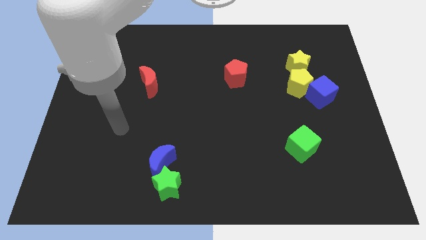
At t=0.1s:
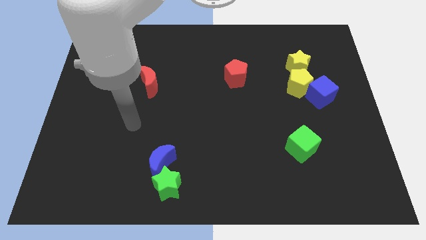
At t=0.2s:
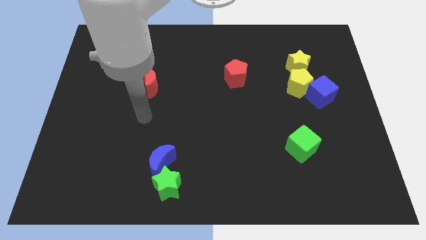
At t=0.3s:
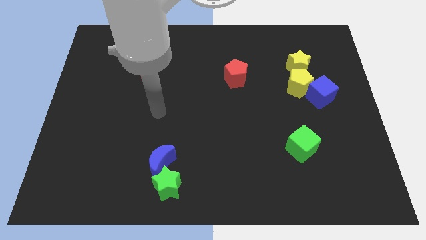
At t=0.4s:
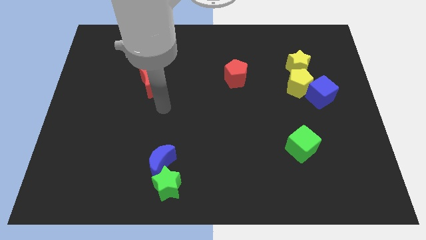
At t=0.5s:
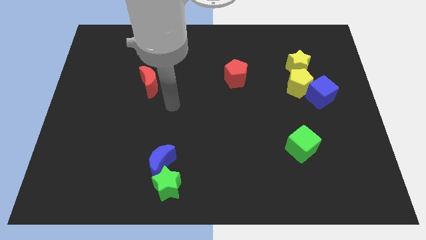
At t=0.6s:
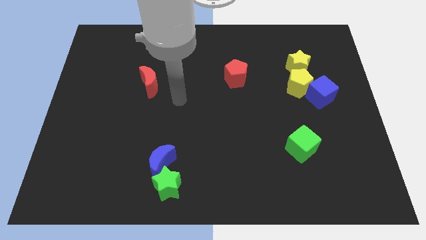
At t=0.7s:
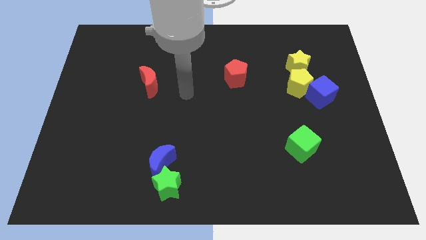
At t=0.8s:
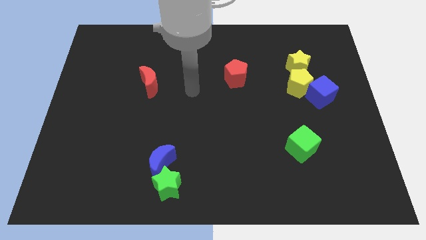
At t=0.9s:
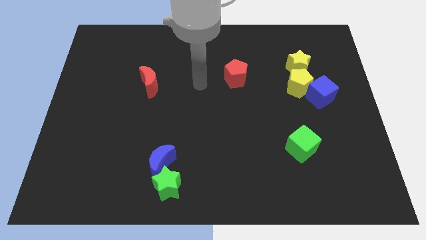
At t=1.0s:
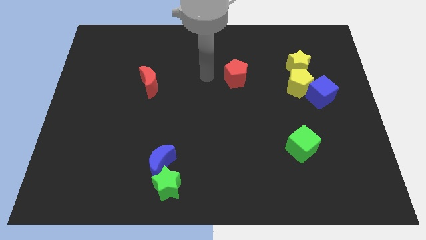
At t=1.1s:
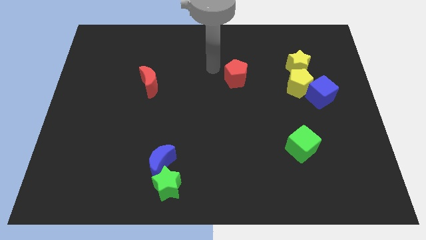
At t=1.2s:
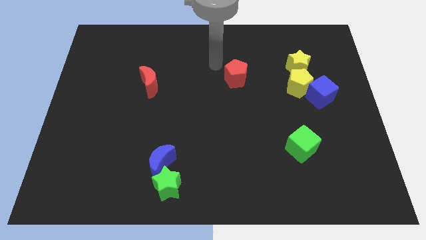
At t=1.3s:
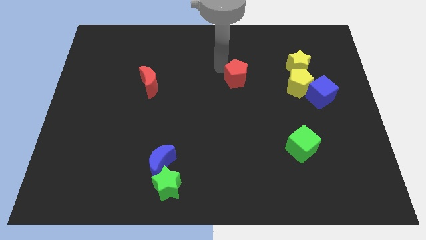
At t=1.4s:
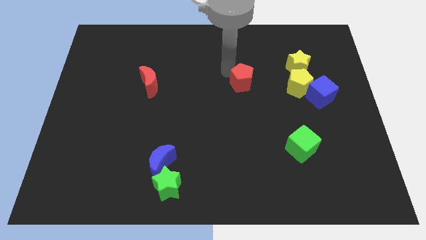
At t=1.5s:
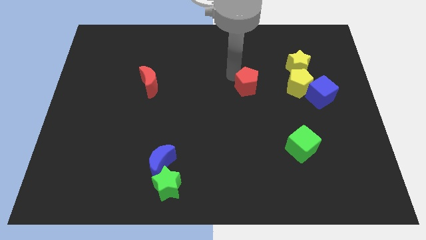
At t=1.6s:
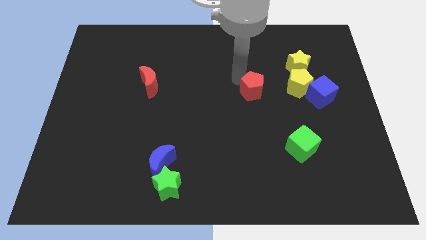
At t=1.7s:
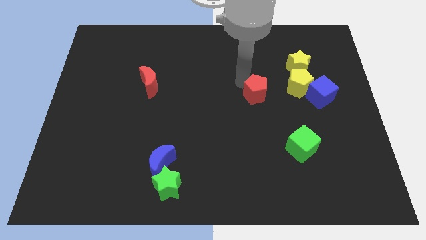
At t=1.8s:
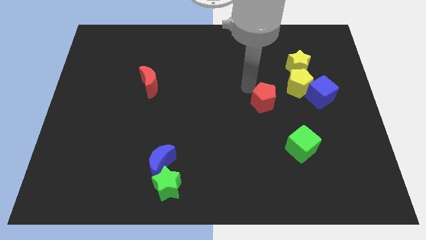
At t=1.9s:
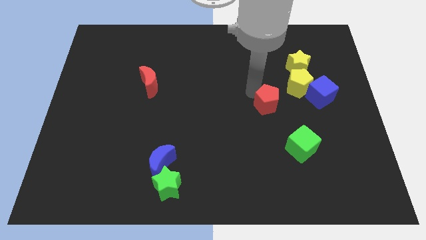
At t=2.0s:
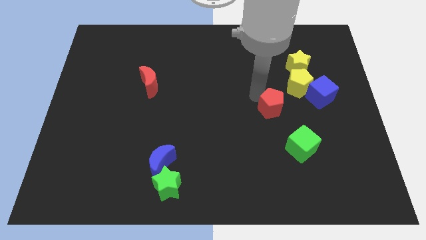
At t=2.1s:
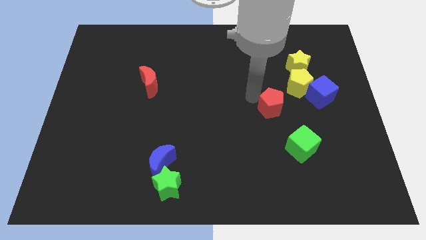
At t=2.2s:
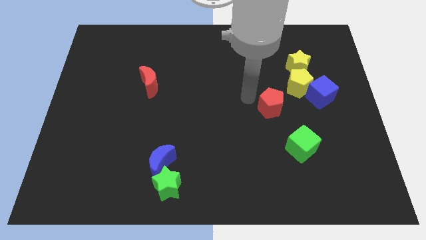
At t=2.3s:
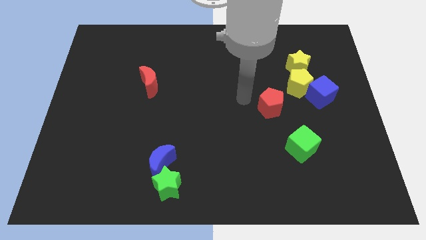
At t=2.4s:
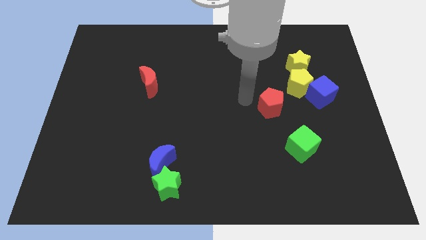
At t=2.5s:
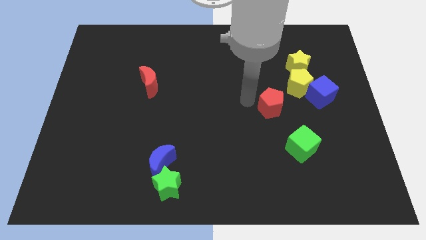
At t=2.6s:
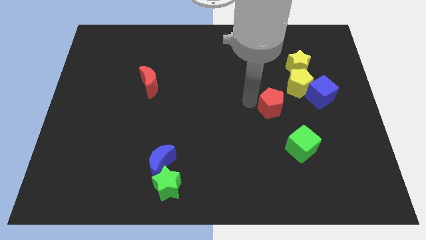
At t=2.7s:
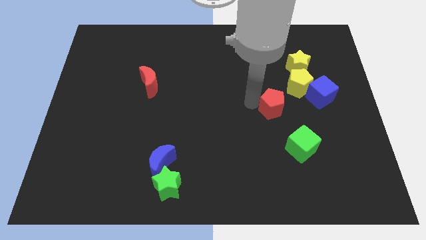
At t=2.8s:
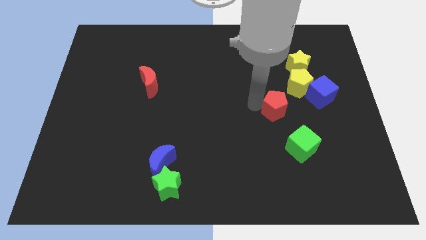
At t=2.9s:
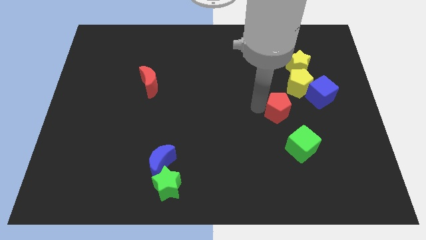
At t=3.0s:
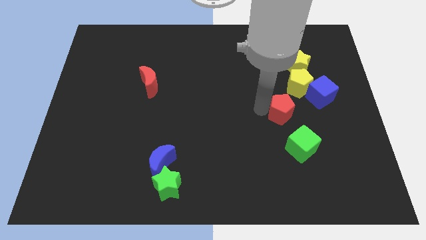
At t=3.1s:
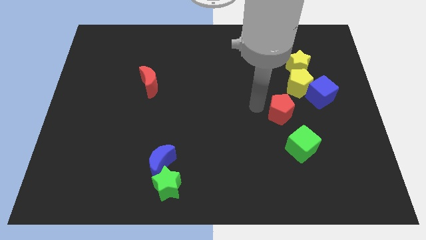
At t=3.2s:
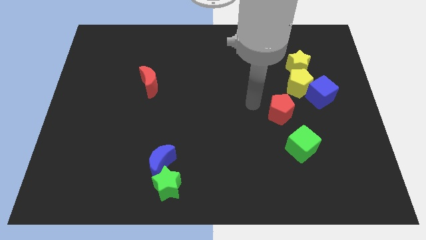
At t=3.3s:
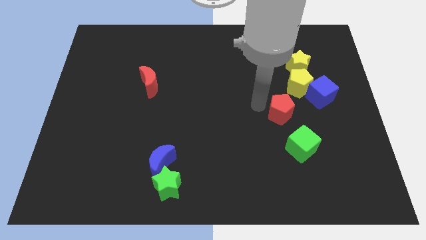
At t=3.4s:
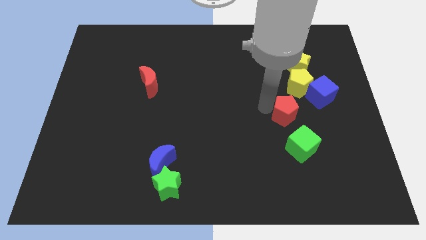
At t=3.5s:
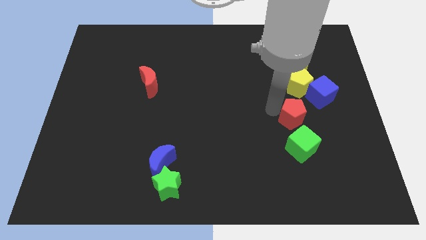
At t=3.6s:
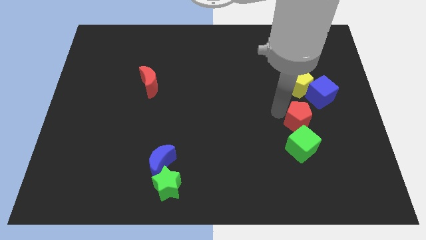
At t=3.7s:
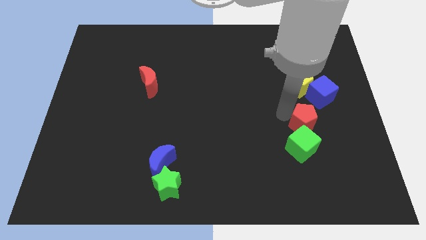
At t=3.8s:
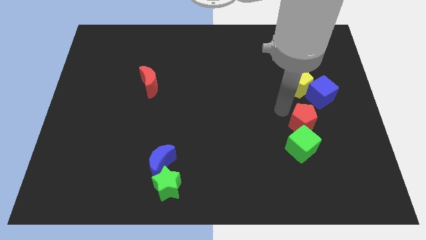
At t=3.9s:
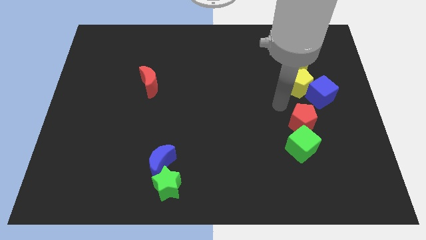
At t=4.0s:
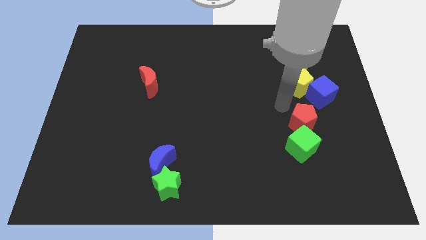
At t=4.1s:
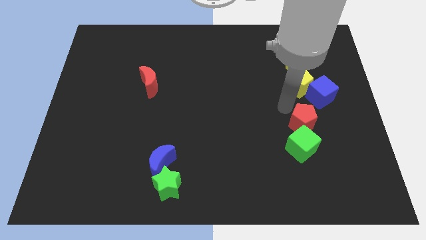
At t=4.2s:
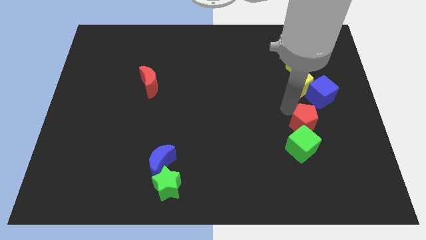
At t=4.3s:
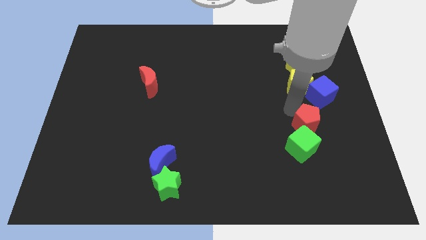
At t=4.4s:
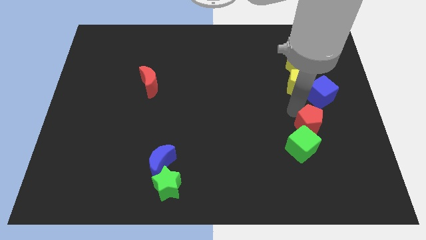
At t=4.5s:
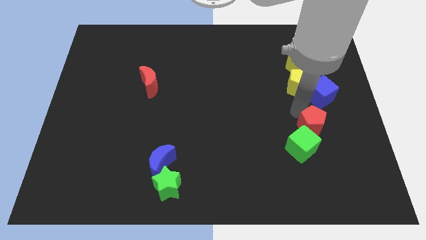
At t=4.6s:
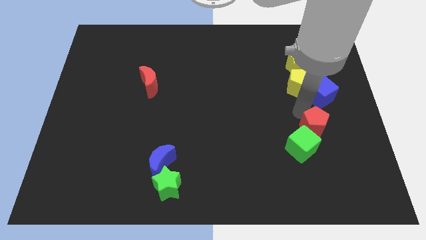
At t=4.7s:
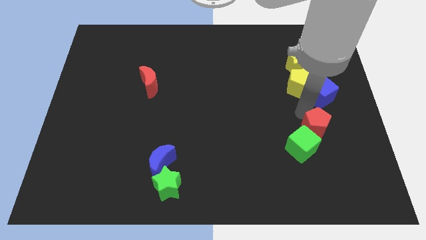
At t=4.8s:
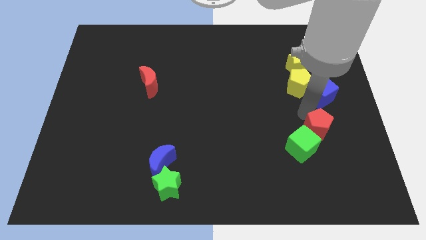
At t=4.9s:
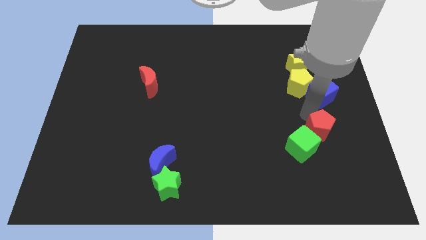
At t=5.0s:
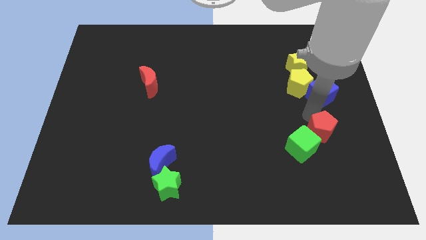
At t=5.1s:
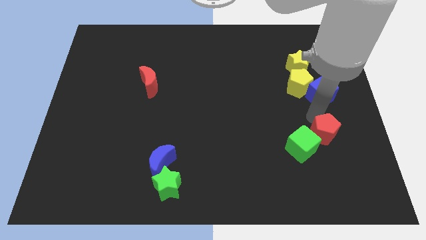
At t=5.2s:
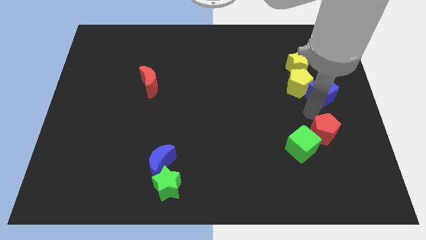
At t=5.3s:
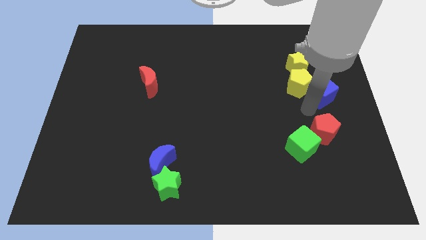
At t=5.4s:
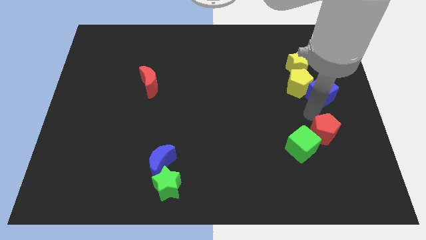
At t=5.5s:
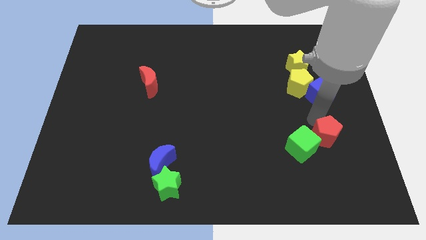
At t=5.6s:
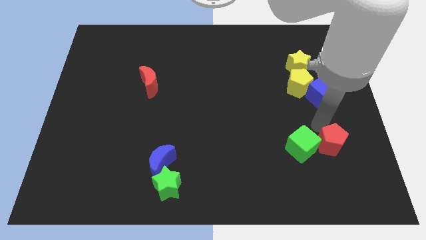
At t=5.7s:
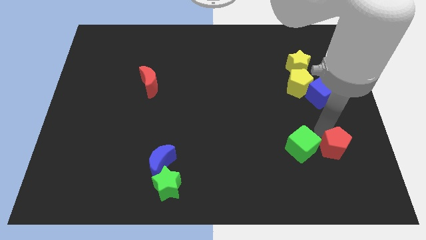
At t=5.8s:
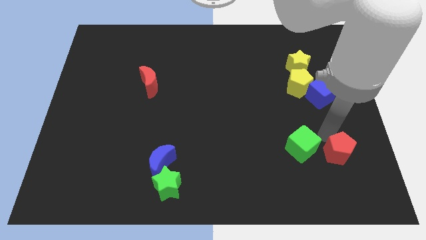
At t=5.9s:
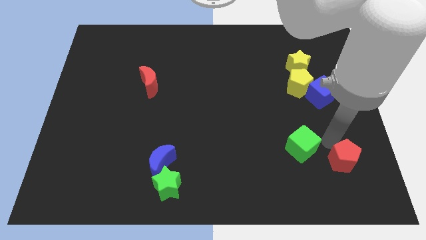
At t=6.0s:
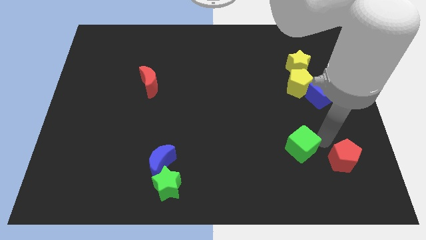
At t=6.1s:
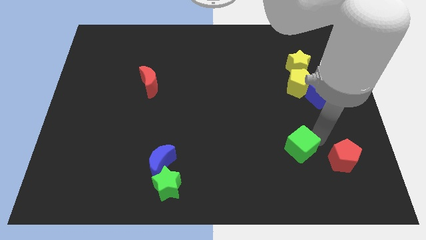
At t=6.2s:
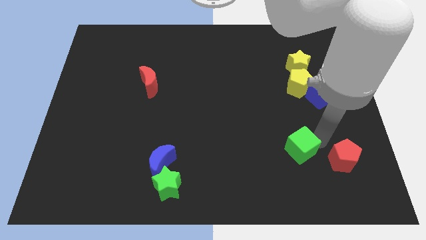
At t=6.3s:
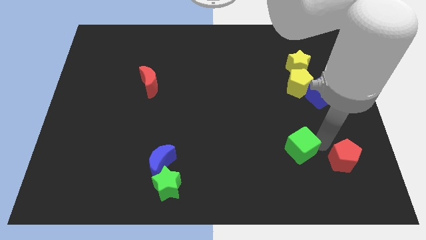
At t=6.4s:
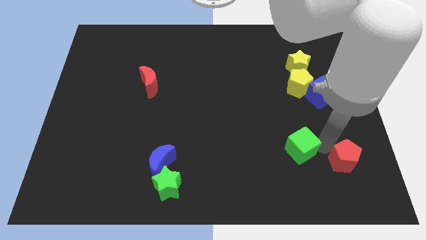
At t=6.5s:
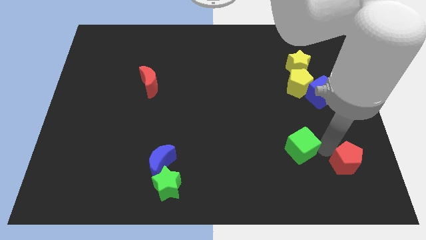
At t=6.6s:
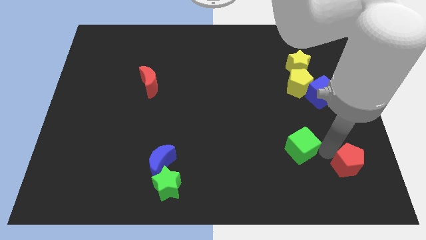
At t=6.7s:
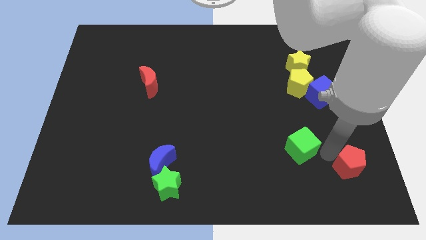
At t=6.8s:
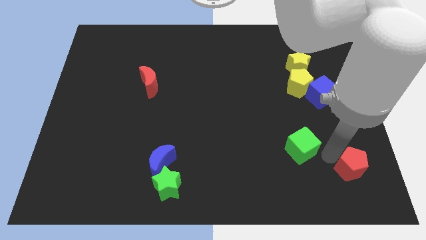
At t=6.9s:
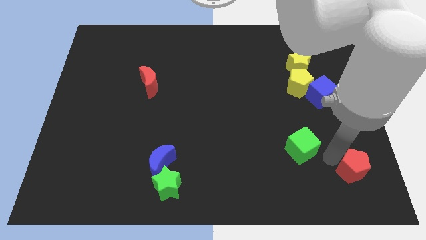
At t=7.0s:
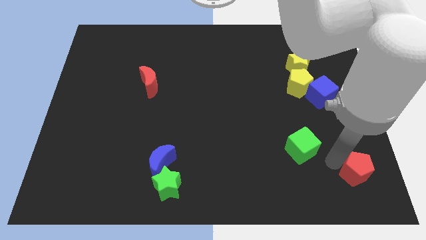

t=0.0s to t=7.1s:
move the red pentagon to the bottom right corner

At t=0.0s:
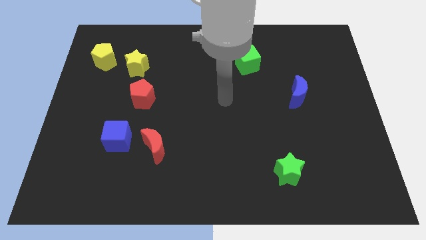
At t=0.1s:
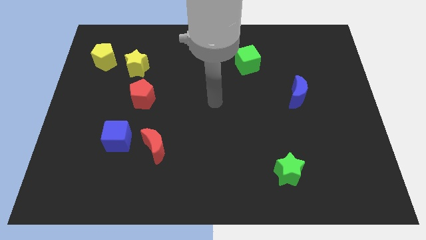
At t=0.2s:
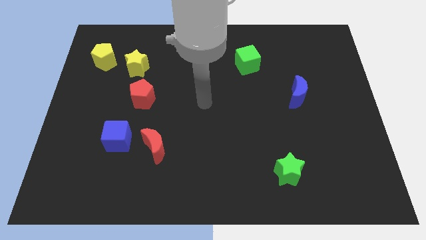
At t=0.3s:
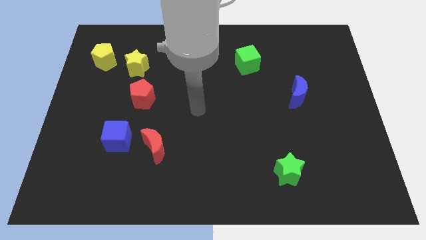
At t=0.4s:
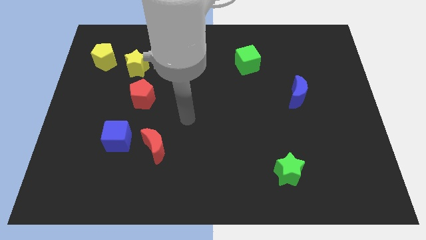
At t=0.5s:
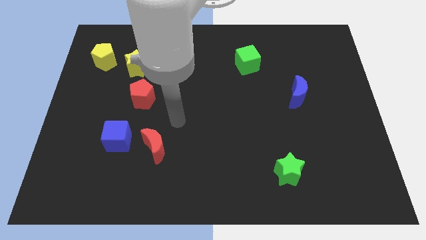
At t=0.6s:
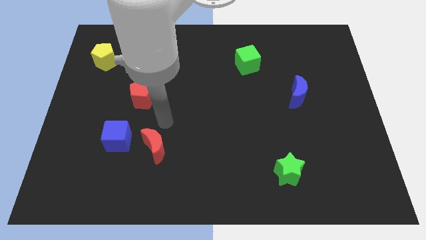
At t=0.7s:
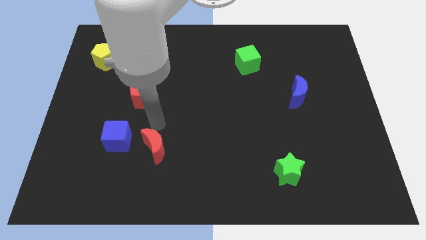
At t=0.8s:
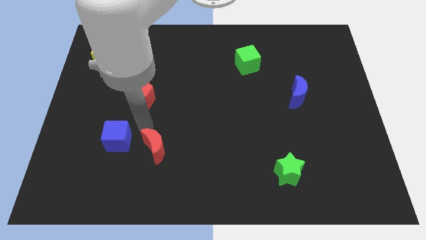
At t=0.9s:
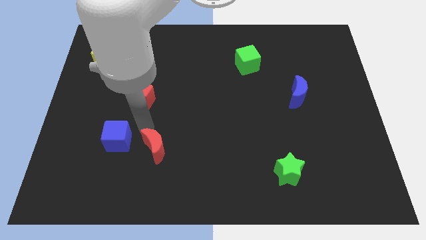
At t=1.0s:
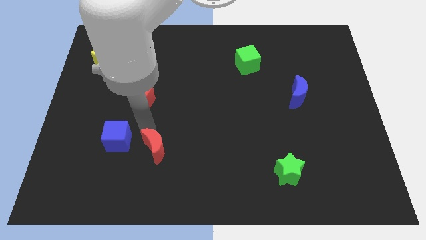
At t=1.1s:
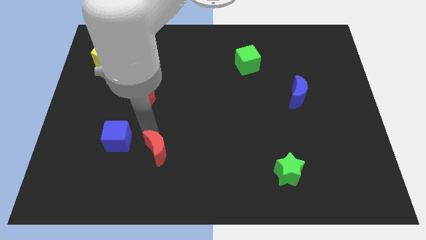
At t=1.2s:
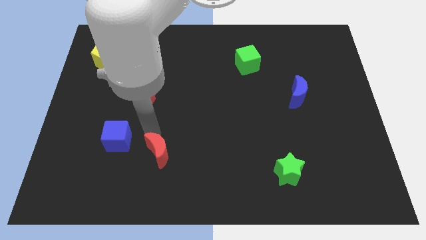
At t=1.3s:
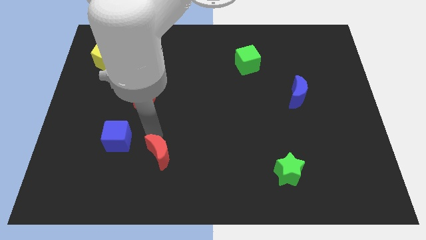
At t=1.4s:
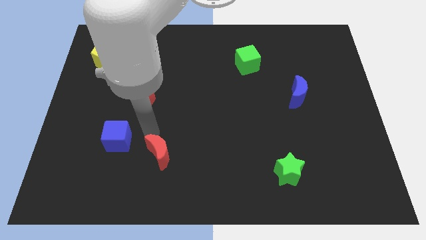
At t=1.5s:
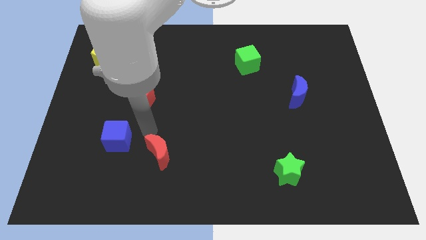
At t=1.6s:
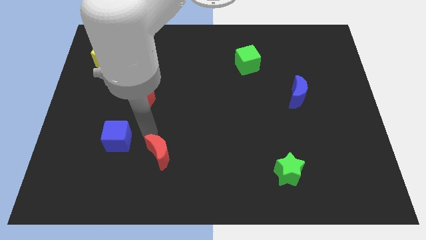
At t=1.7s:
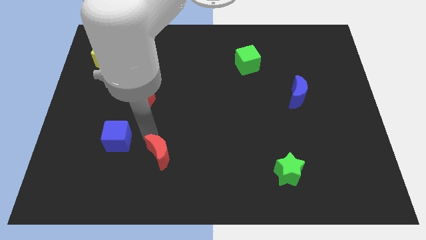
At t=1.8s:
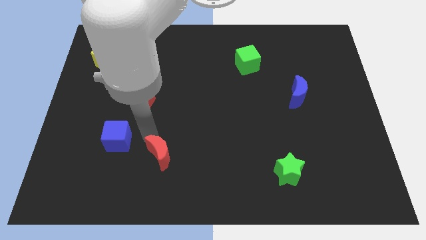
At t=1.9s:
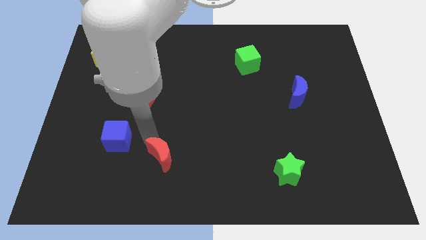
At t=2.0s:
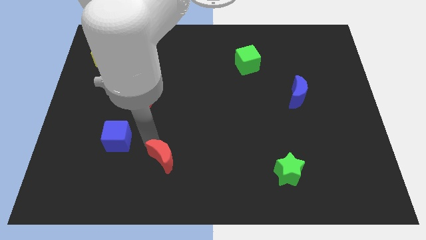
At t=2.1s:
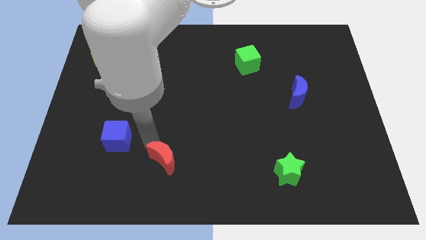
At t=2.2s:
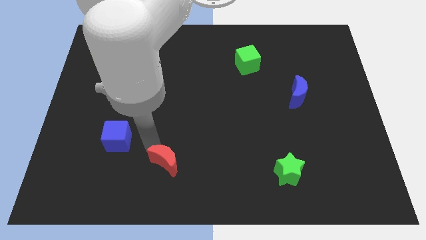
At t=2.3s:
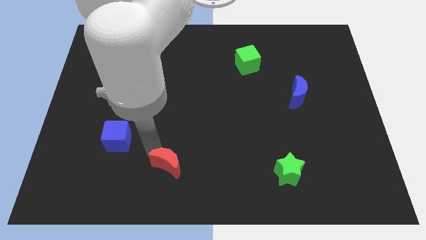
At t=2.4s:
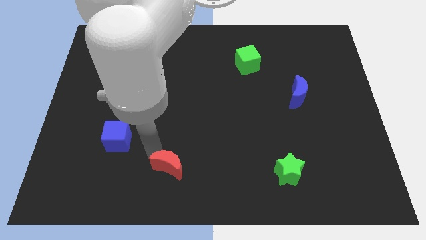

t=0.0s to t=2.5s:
slide the red moon to the bottom side
